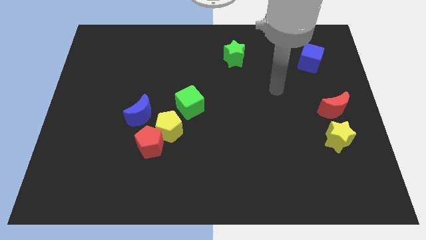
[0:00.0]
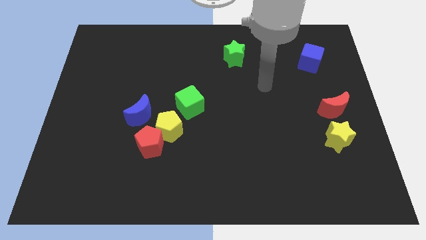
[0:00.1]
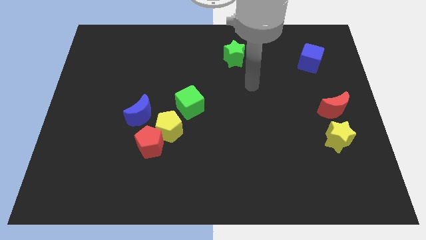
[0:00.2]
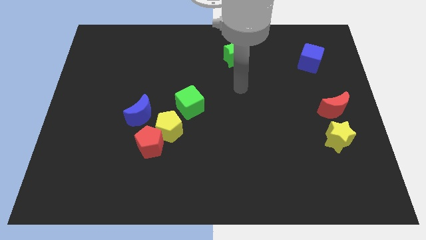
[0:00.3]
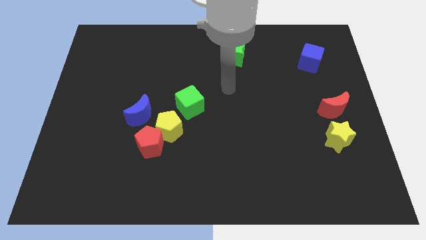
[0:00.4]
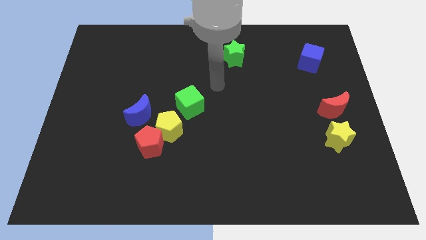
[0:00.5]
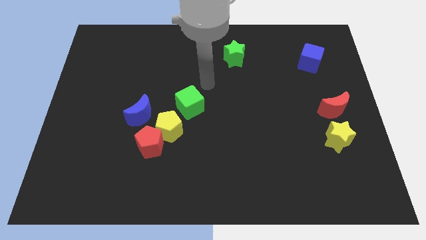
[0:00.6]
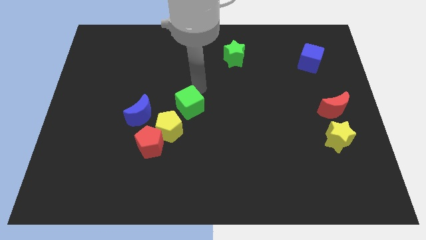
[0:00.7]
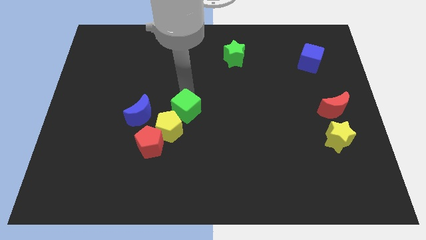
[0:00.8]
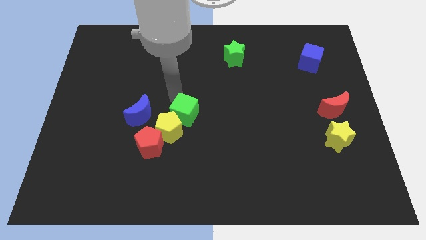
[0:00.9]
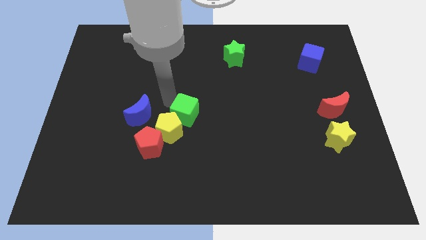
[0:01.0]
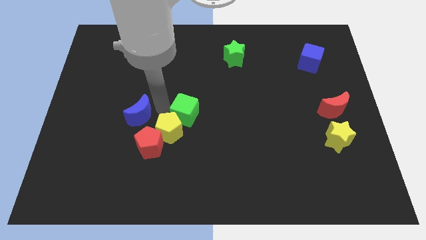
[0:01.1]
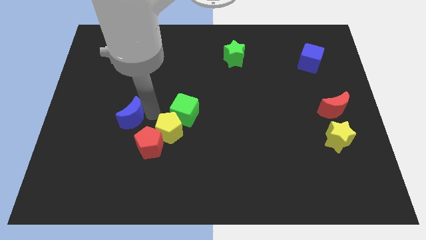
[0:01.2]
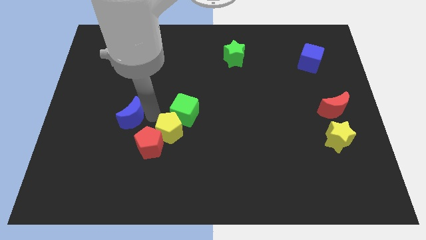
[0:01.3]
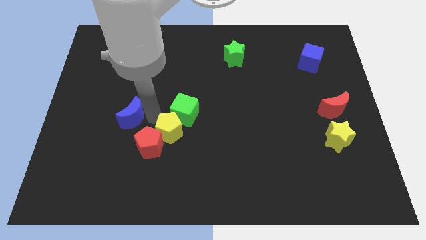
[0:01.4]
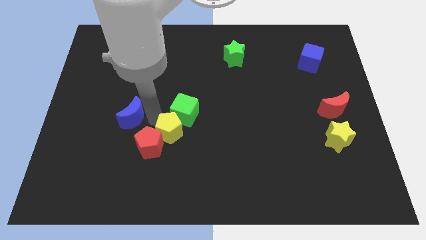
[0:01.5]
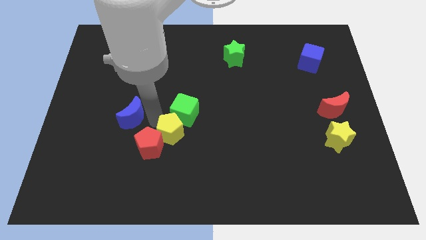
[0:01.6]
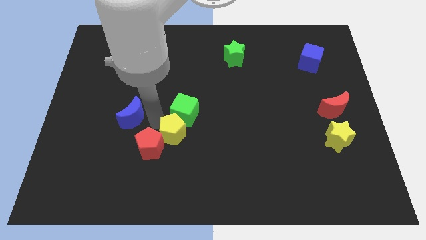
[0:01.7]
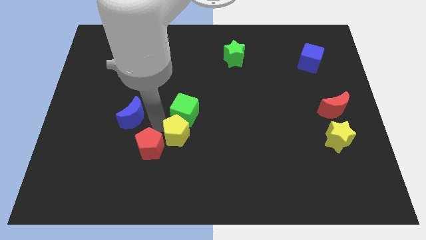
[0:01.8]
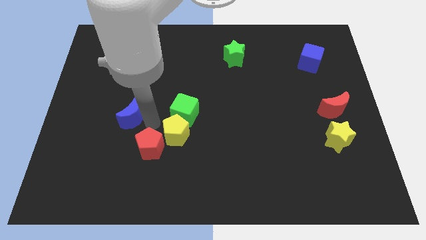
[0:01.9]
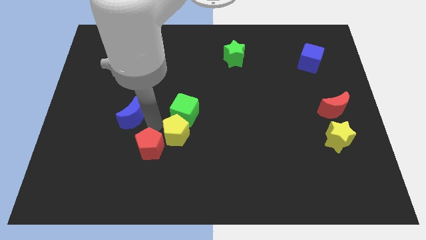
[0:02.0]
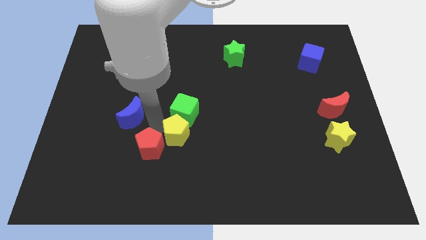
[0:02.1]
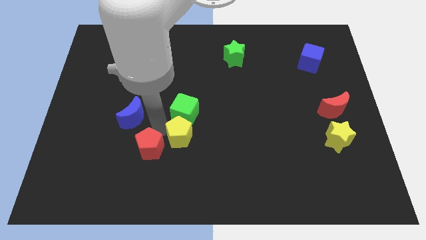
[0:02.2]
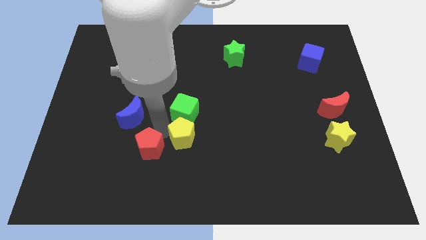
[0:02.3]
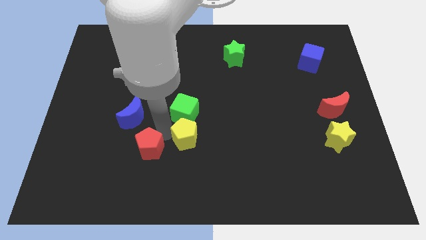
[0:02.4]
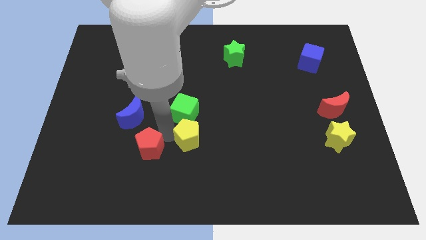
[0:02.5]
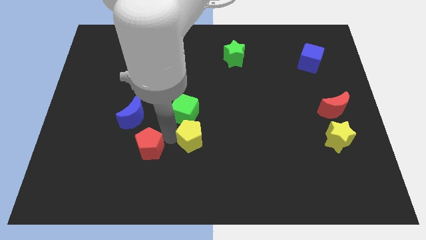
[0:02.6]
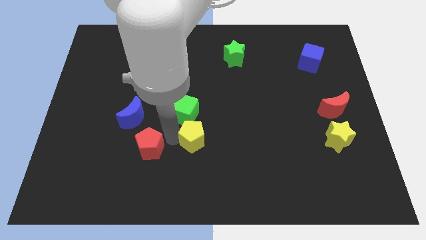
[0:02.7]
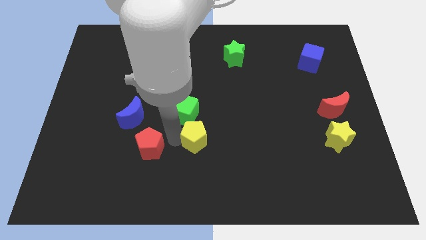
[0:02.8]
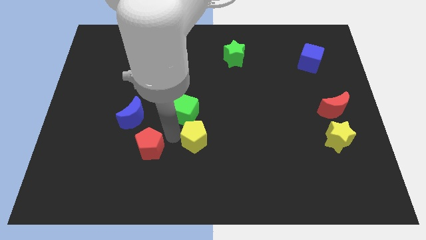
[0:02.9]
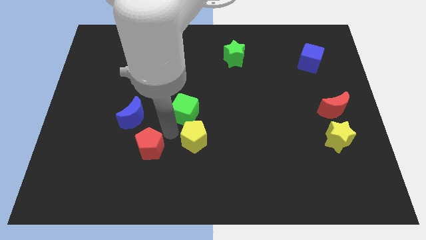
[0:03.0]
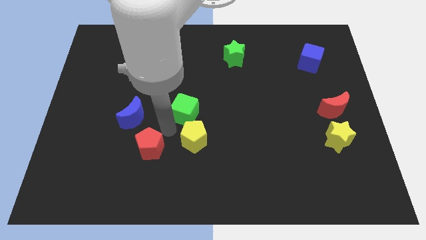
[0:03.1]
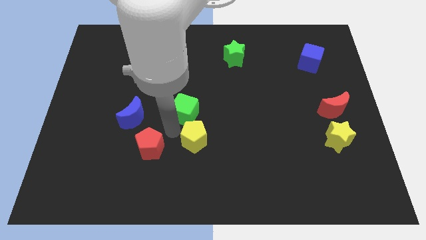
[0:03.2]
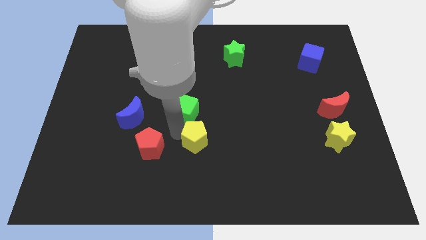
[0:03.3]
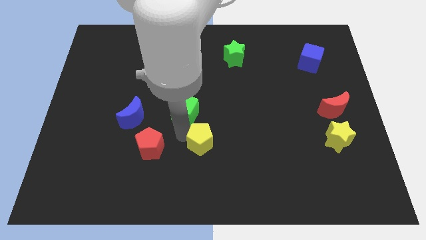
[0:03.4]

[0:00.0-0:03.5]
pull the yellow pentagon apart from the red pentagon, blue moon, and green cube

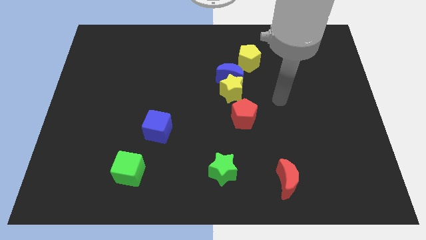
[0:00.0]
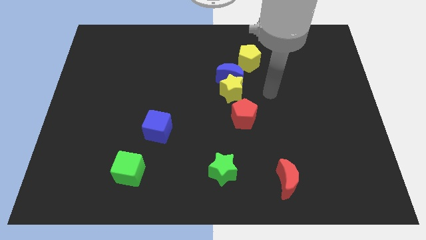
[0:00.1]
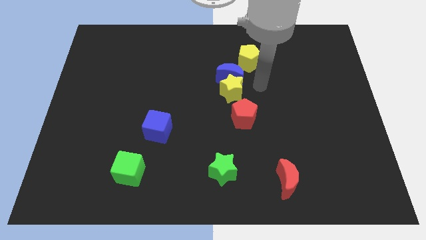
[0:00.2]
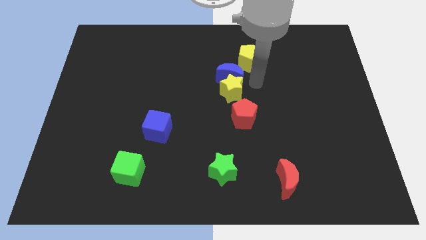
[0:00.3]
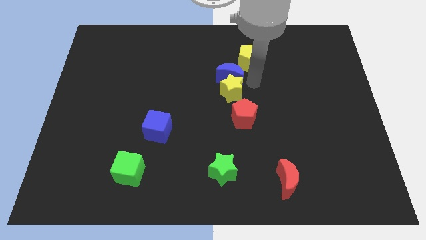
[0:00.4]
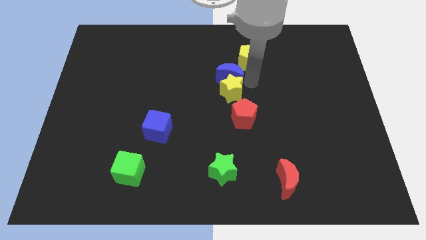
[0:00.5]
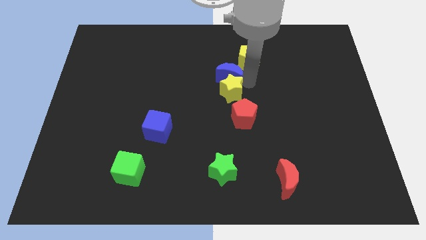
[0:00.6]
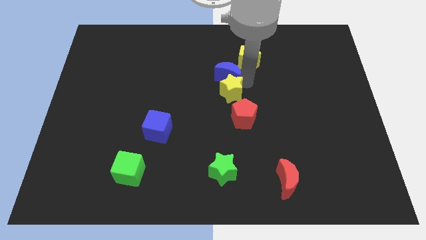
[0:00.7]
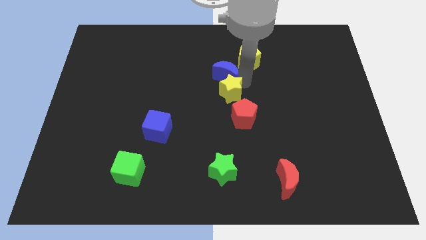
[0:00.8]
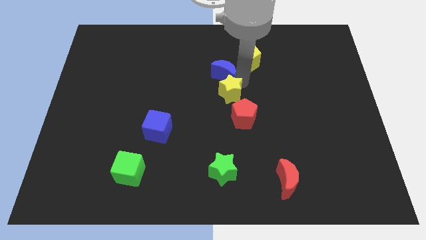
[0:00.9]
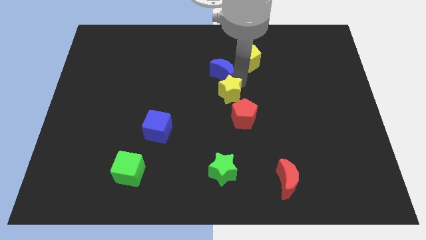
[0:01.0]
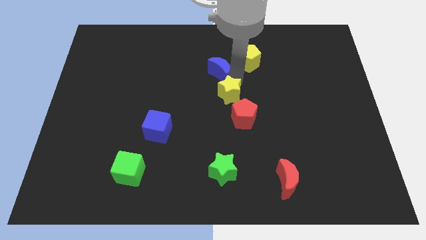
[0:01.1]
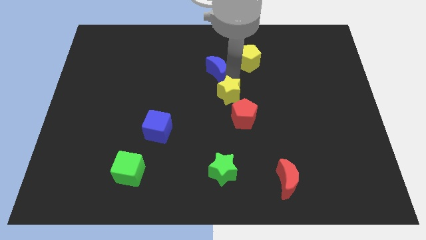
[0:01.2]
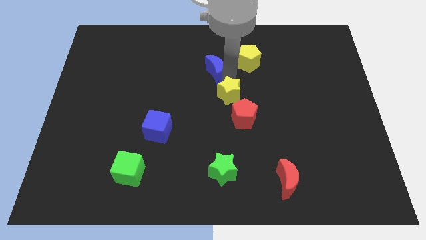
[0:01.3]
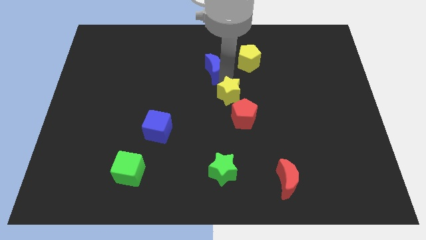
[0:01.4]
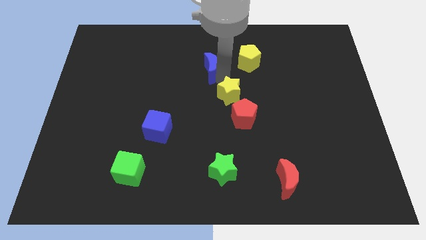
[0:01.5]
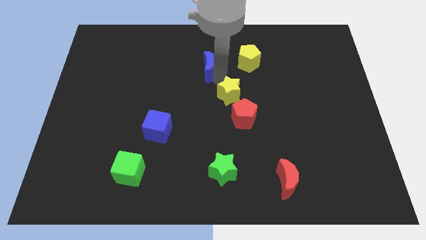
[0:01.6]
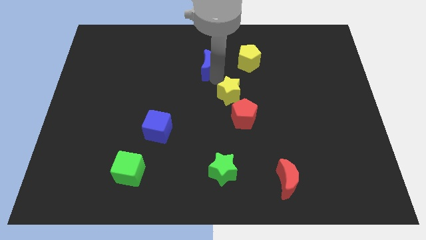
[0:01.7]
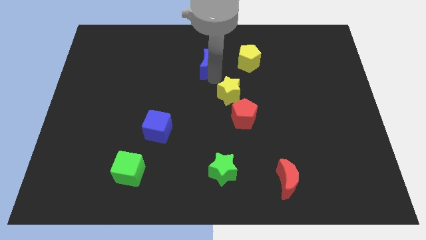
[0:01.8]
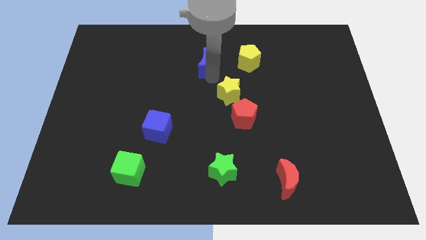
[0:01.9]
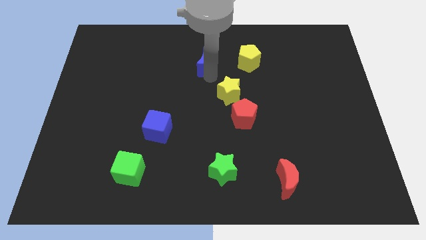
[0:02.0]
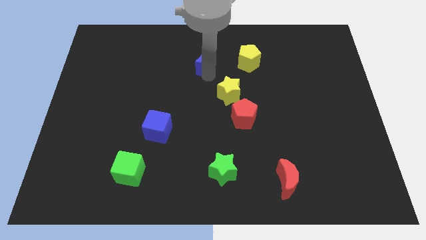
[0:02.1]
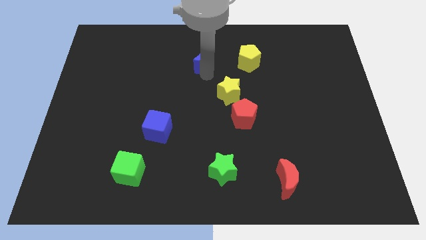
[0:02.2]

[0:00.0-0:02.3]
pull the blue moon apart from the yellow star and yellow pentagon

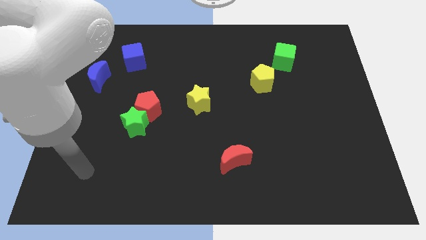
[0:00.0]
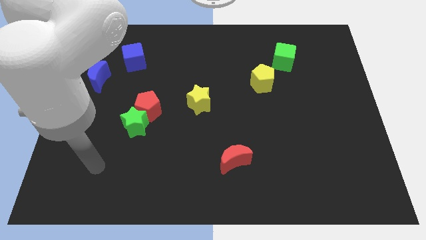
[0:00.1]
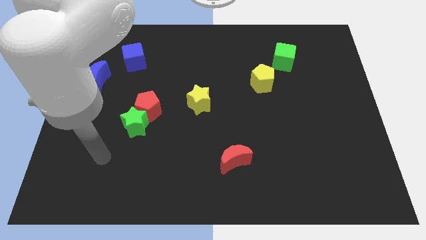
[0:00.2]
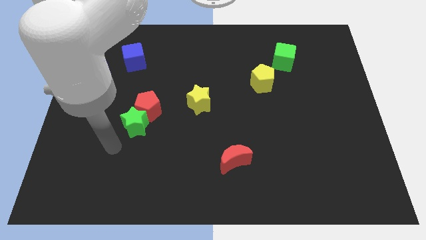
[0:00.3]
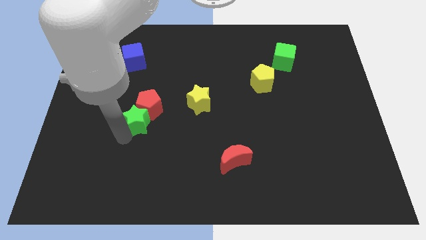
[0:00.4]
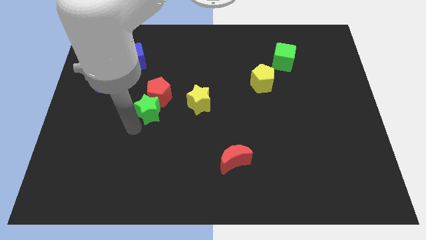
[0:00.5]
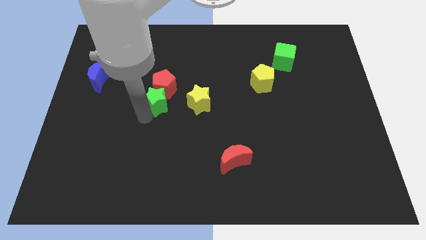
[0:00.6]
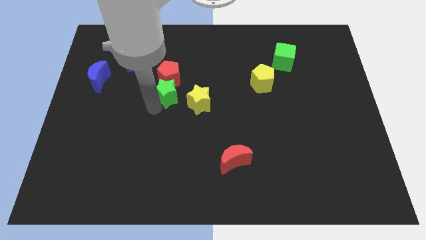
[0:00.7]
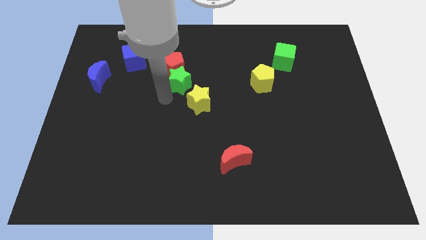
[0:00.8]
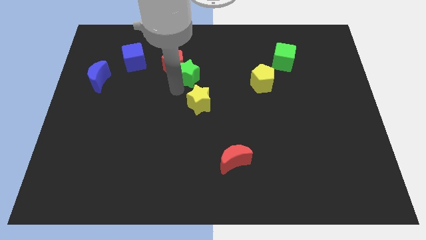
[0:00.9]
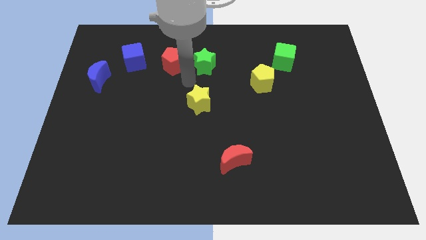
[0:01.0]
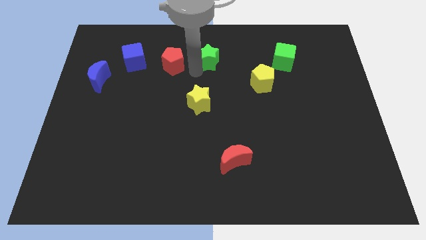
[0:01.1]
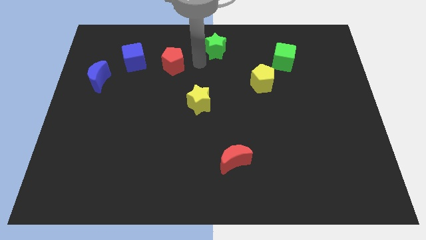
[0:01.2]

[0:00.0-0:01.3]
pull the red pentagon apart from the green star

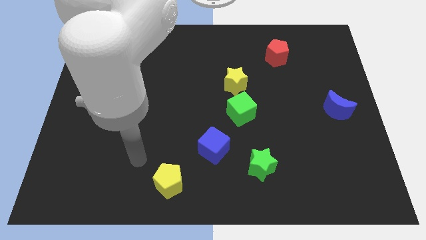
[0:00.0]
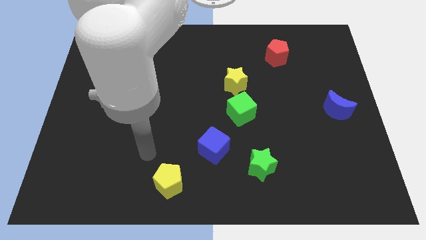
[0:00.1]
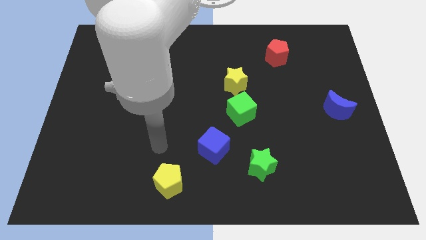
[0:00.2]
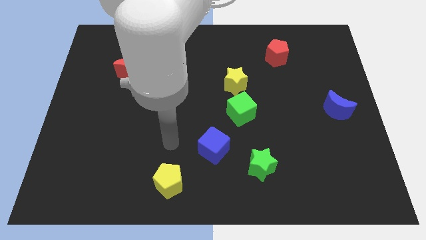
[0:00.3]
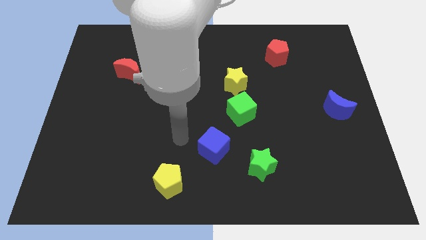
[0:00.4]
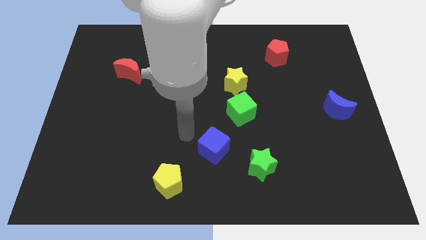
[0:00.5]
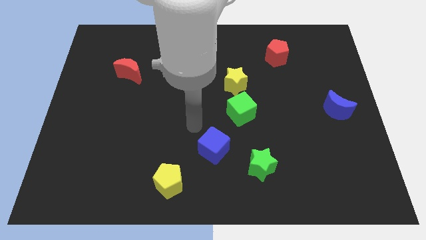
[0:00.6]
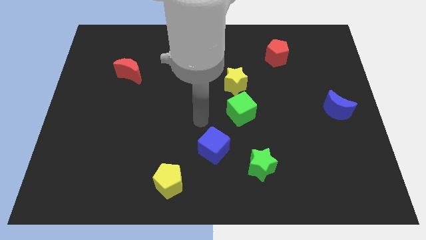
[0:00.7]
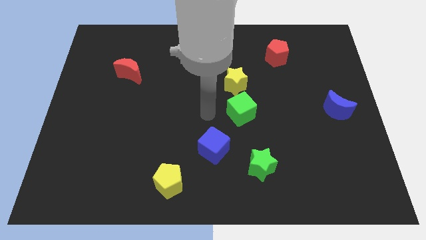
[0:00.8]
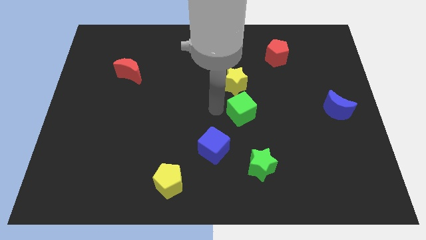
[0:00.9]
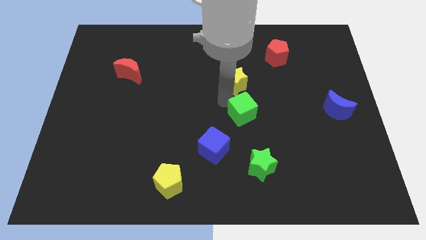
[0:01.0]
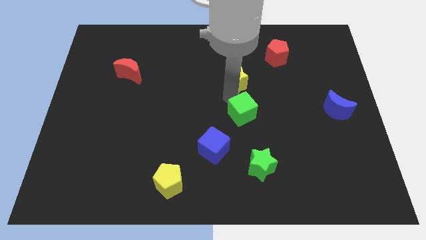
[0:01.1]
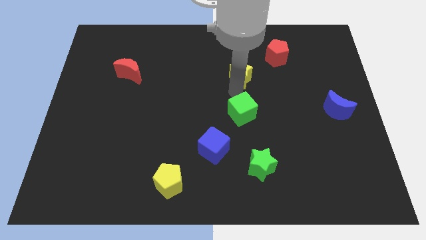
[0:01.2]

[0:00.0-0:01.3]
move the green cube away from the yellow star

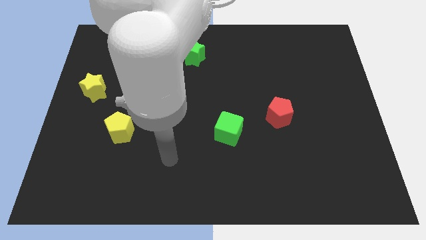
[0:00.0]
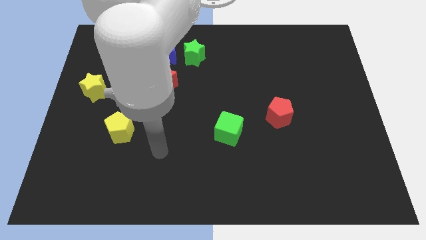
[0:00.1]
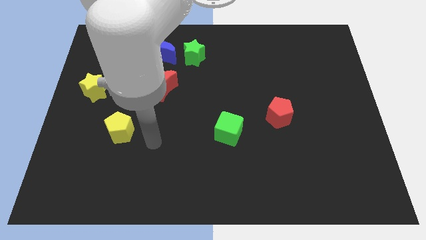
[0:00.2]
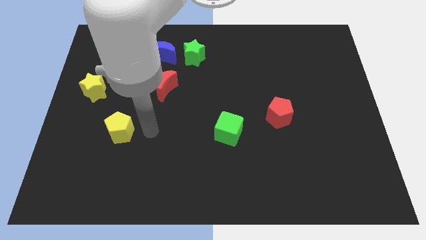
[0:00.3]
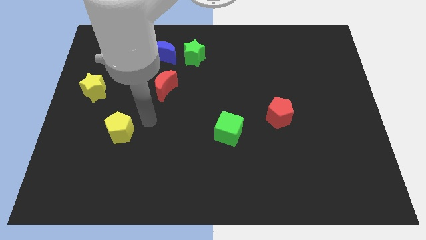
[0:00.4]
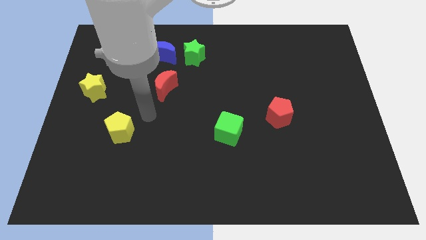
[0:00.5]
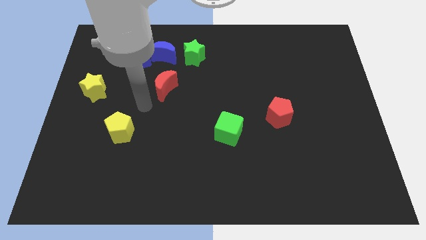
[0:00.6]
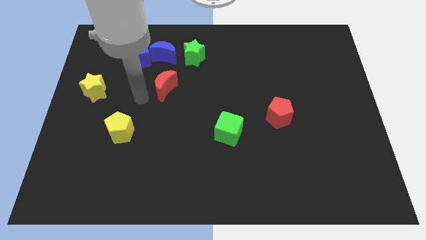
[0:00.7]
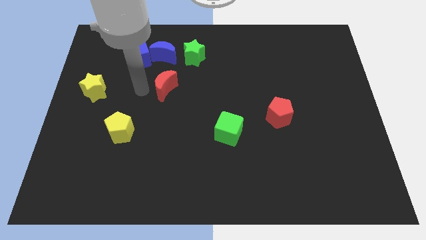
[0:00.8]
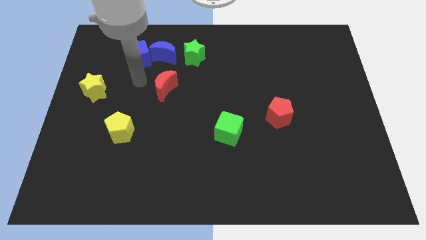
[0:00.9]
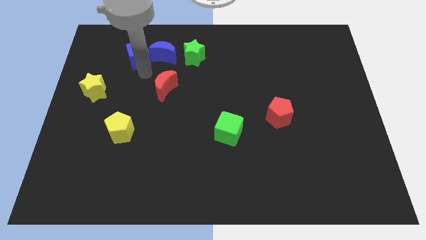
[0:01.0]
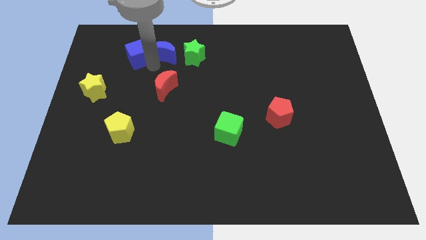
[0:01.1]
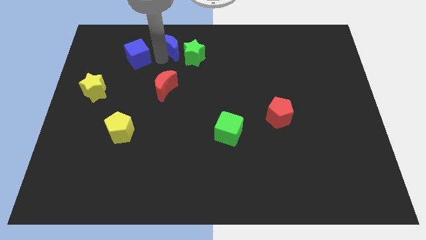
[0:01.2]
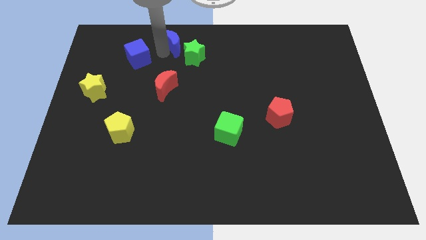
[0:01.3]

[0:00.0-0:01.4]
pull the blue cube apart from the blue moon
